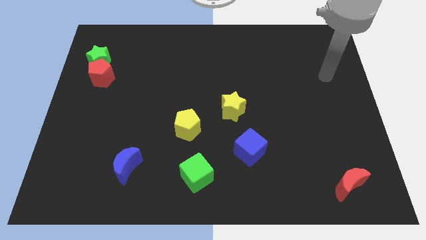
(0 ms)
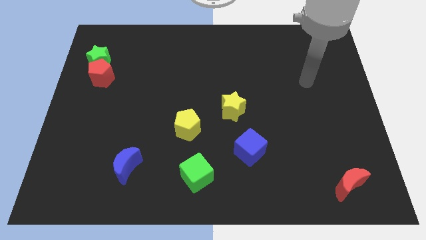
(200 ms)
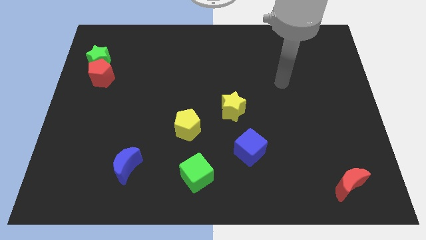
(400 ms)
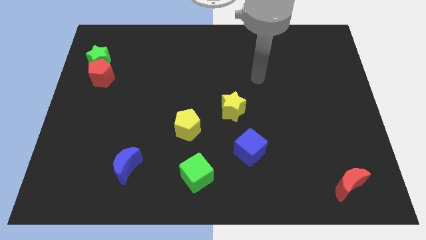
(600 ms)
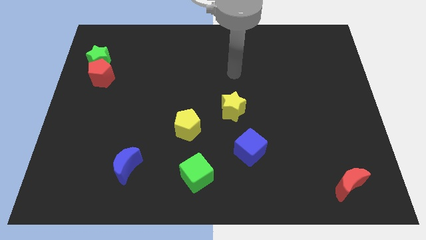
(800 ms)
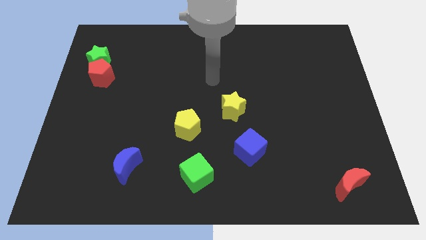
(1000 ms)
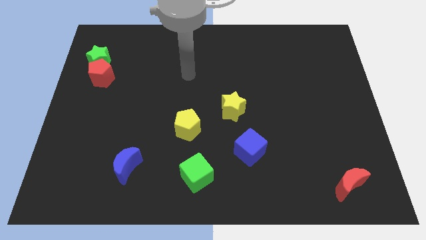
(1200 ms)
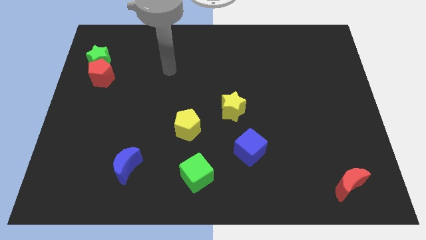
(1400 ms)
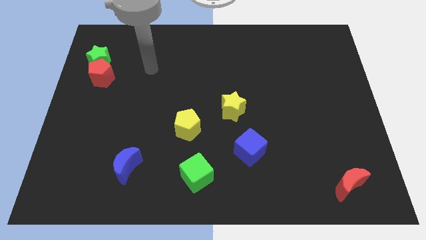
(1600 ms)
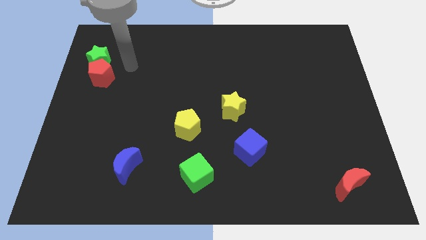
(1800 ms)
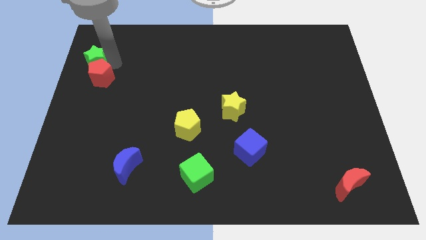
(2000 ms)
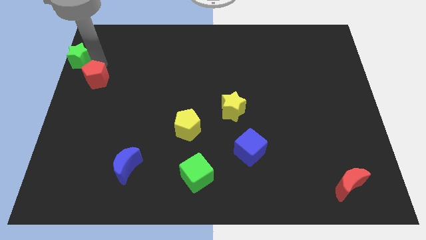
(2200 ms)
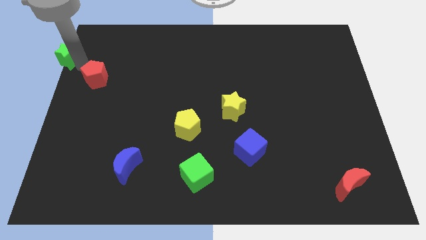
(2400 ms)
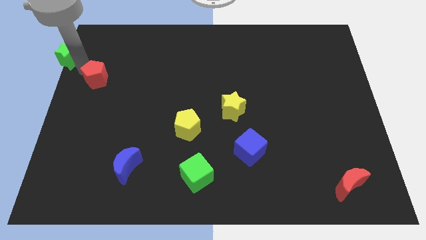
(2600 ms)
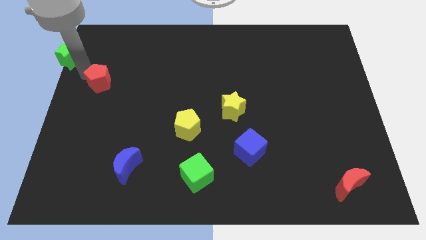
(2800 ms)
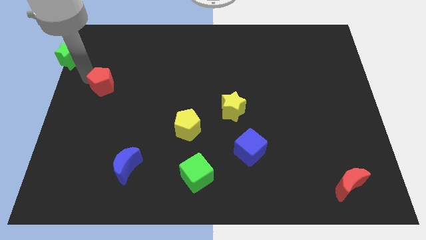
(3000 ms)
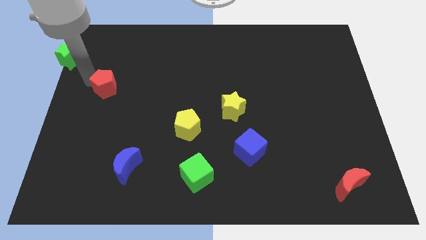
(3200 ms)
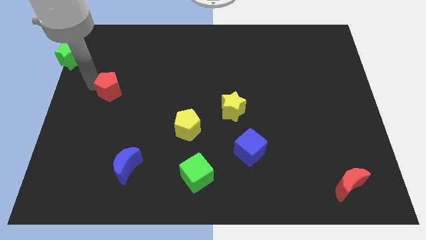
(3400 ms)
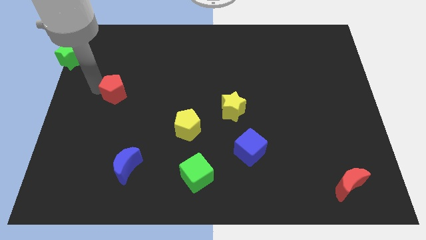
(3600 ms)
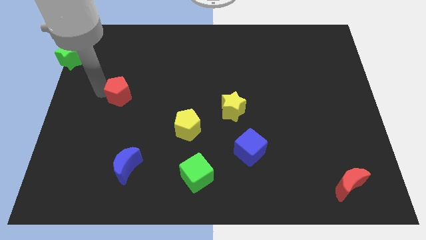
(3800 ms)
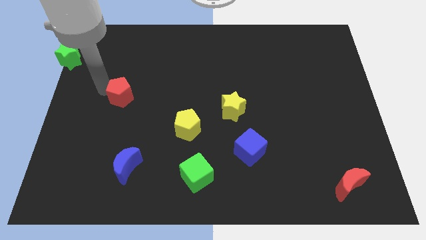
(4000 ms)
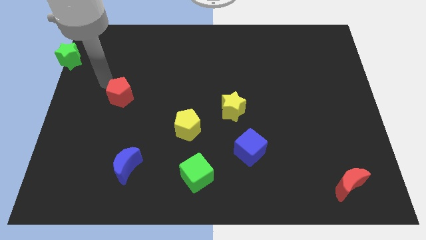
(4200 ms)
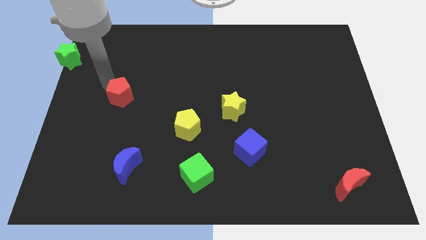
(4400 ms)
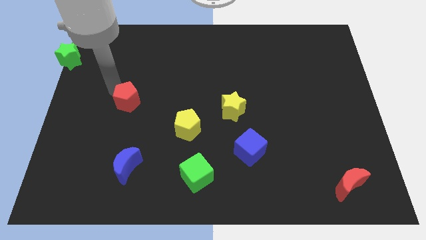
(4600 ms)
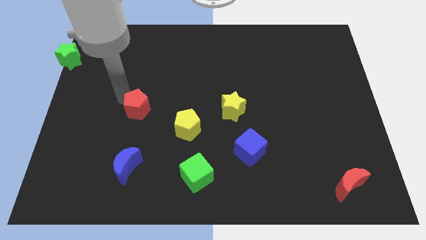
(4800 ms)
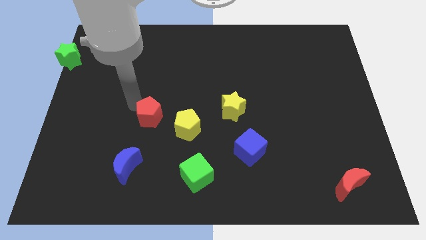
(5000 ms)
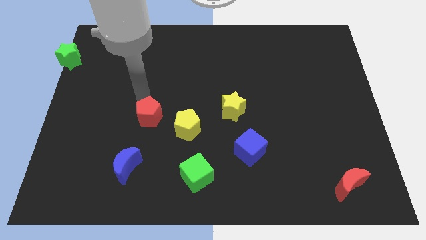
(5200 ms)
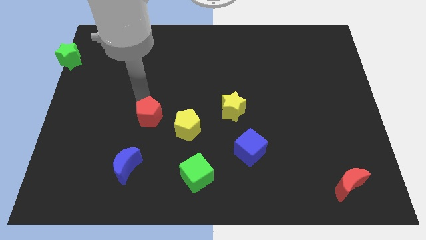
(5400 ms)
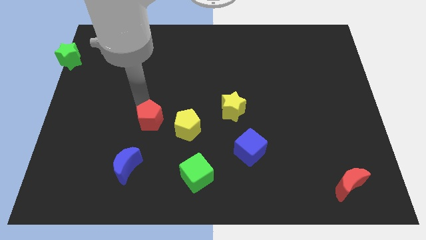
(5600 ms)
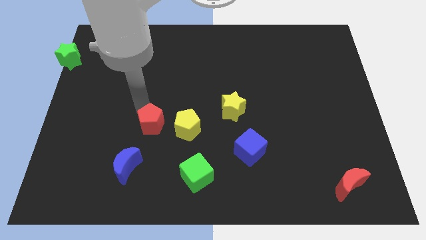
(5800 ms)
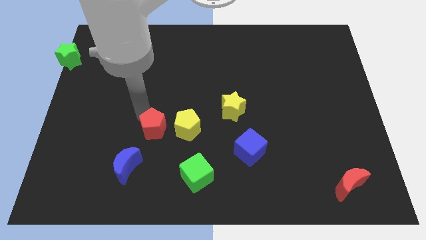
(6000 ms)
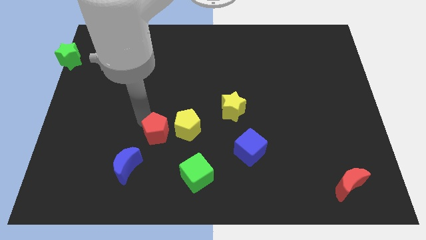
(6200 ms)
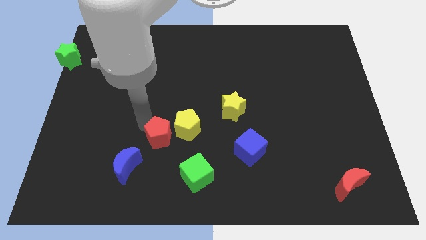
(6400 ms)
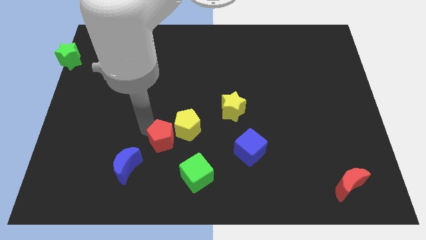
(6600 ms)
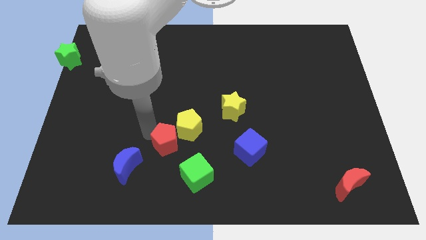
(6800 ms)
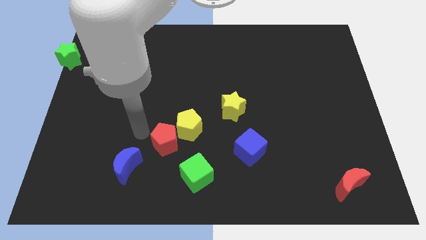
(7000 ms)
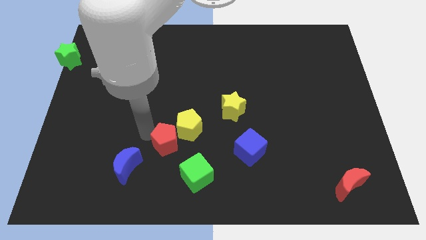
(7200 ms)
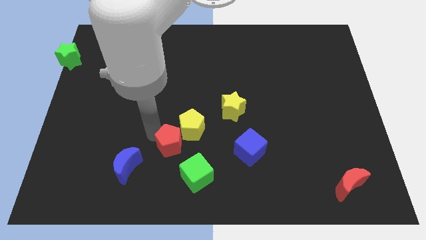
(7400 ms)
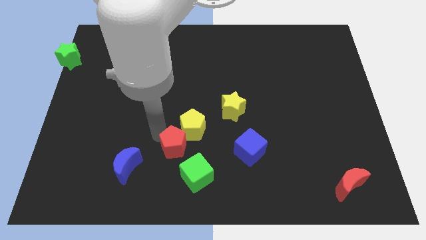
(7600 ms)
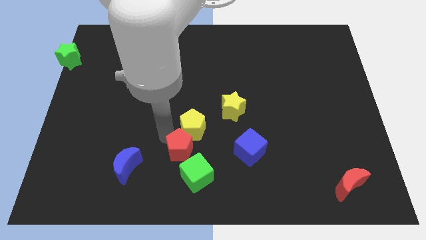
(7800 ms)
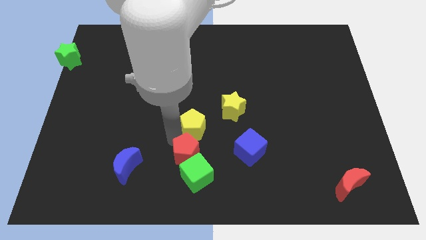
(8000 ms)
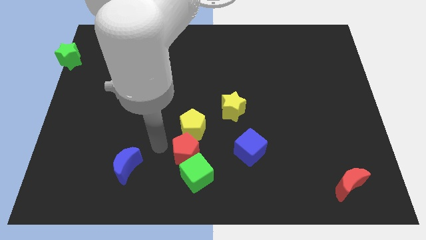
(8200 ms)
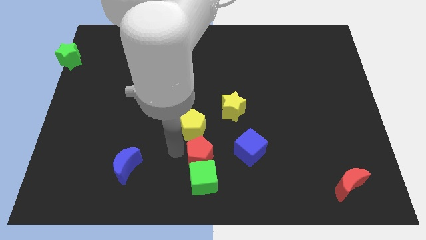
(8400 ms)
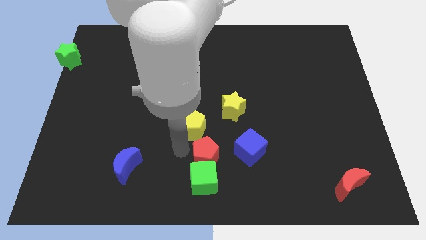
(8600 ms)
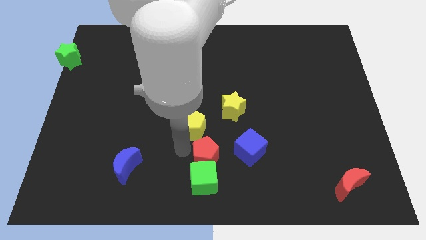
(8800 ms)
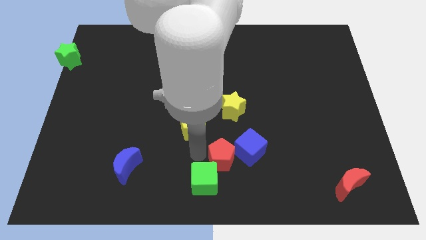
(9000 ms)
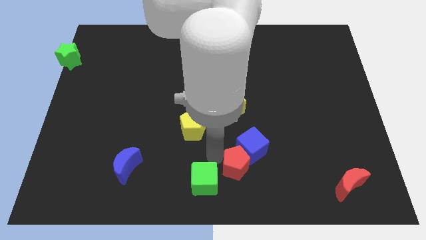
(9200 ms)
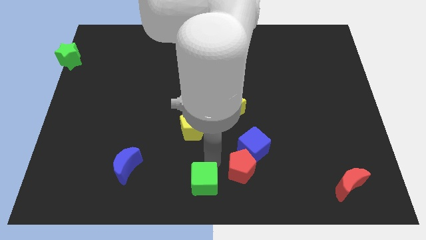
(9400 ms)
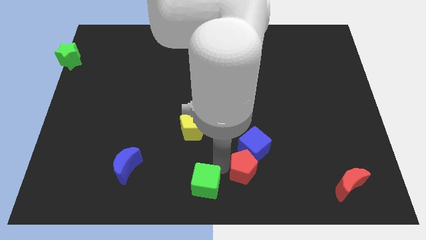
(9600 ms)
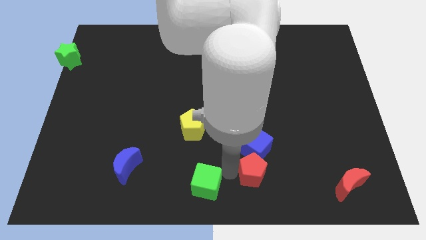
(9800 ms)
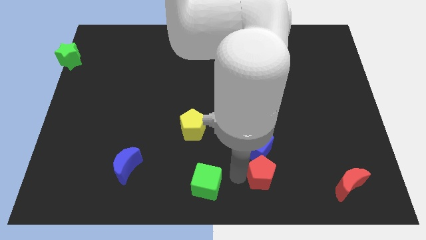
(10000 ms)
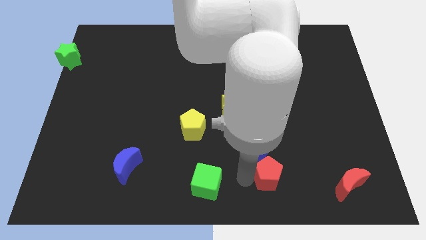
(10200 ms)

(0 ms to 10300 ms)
move the red pentagon left of the red moon

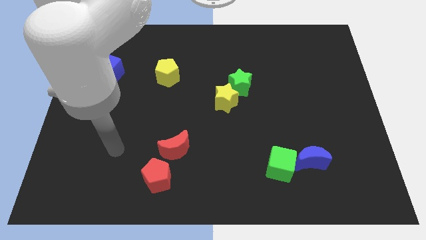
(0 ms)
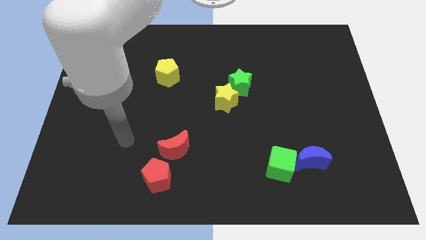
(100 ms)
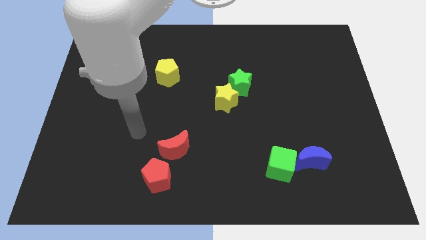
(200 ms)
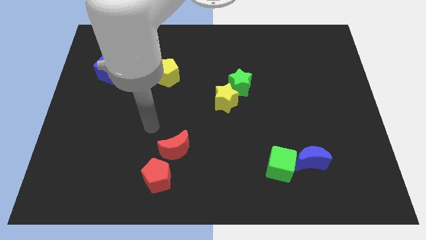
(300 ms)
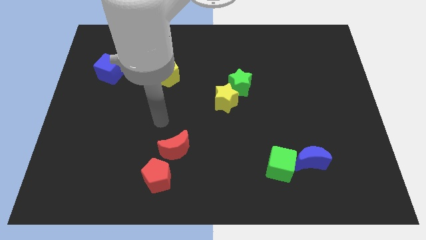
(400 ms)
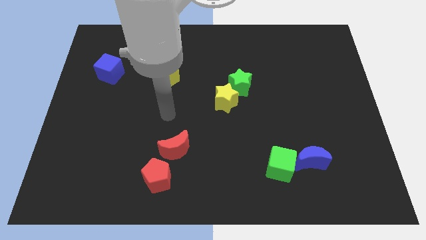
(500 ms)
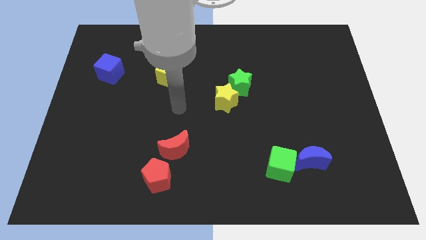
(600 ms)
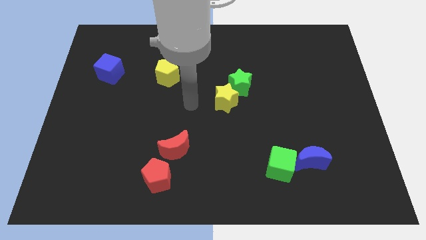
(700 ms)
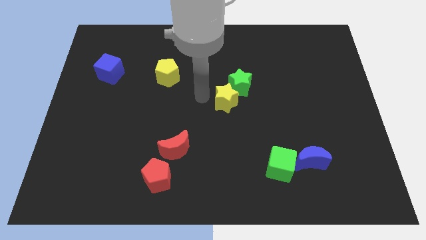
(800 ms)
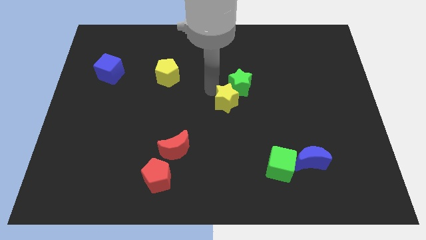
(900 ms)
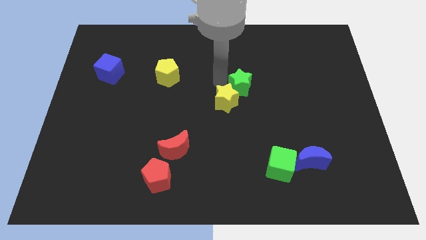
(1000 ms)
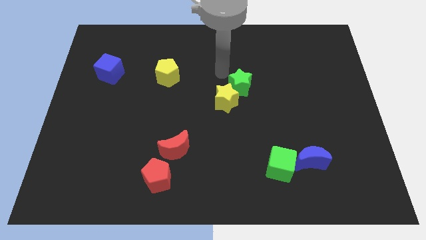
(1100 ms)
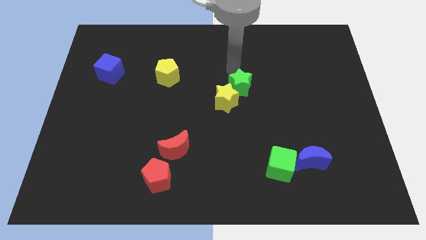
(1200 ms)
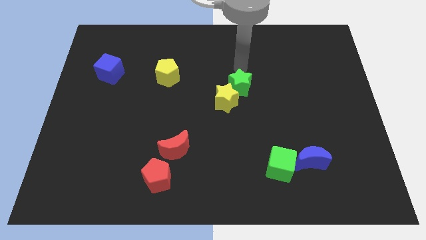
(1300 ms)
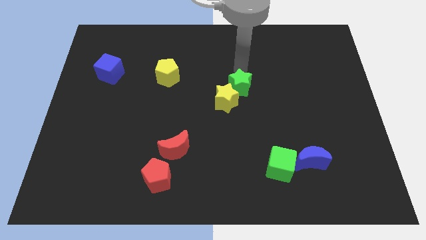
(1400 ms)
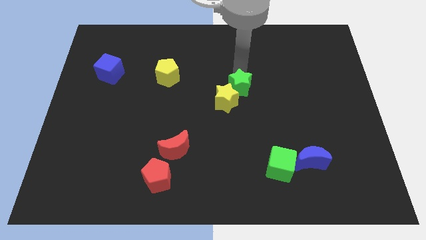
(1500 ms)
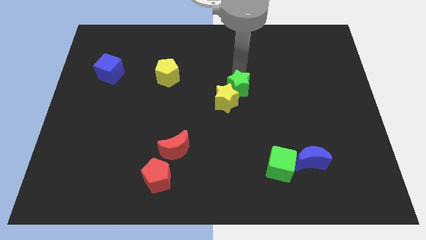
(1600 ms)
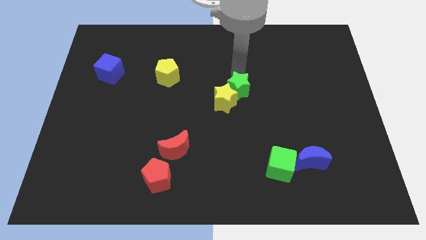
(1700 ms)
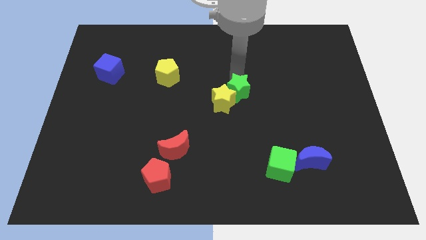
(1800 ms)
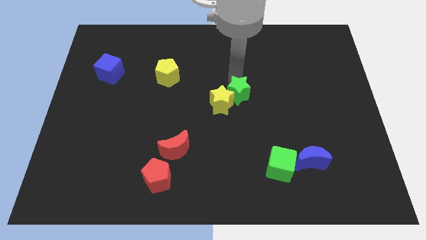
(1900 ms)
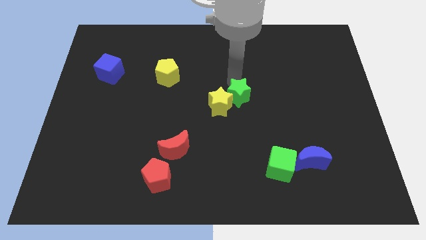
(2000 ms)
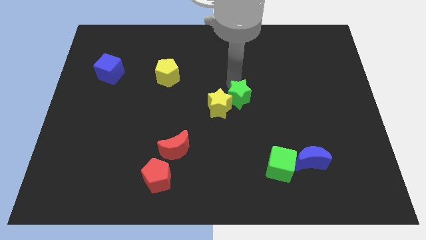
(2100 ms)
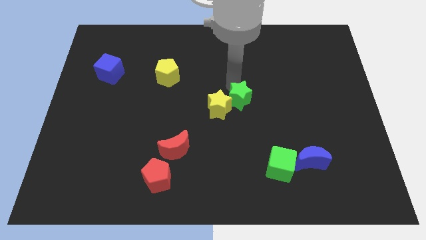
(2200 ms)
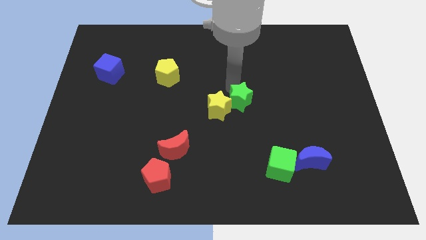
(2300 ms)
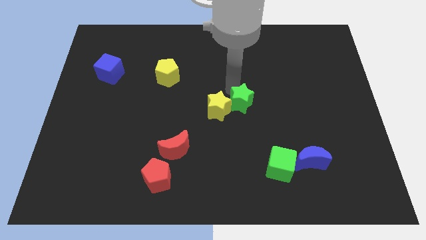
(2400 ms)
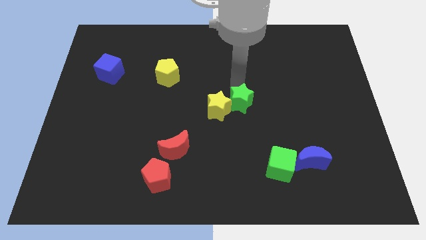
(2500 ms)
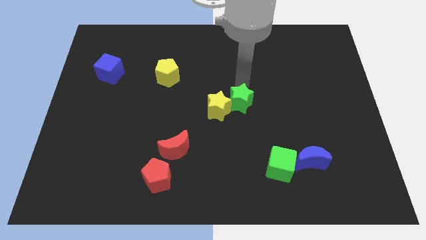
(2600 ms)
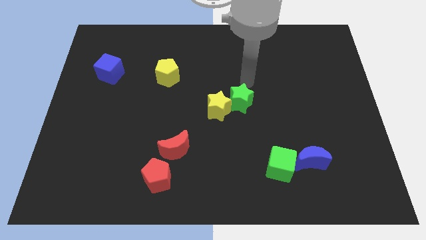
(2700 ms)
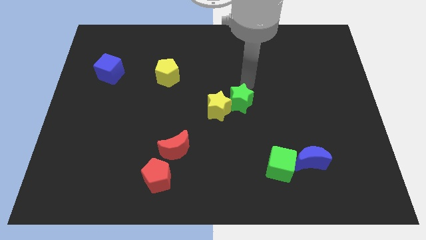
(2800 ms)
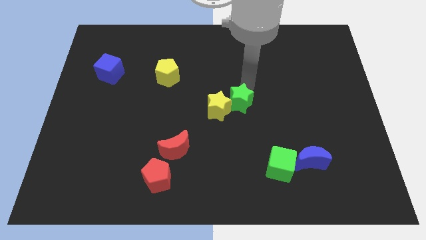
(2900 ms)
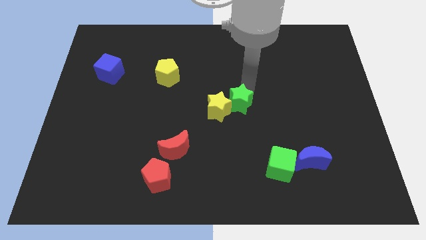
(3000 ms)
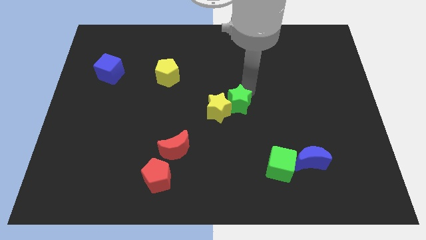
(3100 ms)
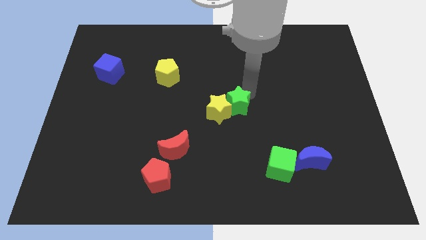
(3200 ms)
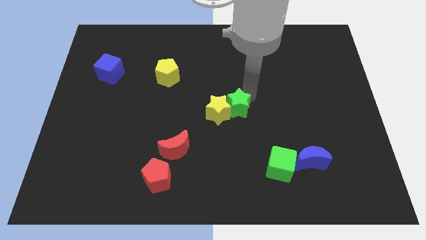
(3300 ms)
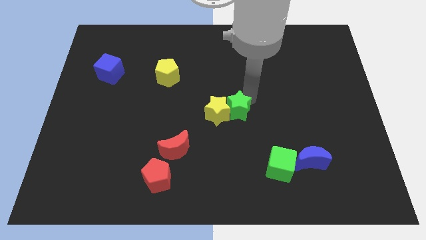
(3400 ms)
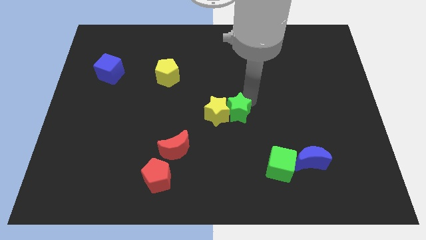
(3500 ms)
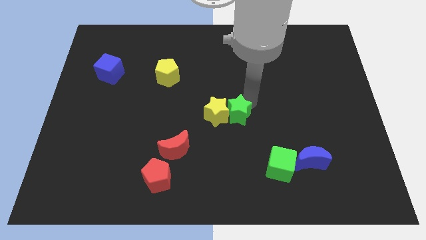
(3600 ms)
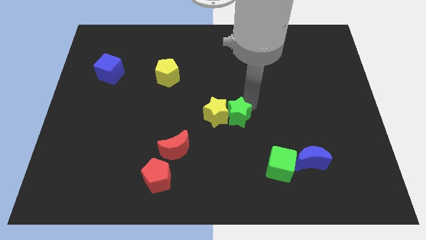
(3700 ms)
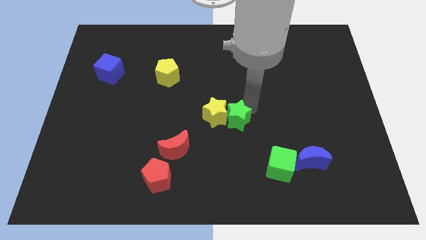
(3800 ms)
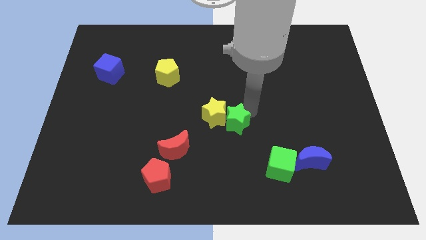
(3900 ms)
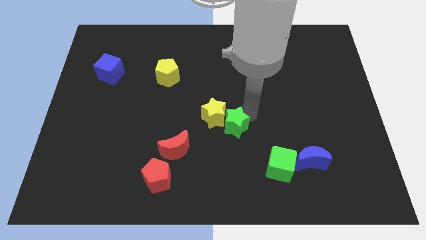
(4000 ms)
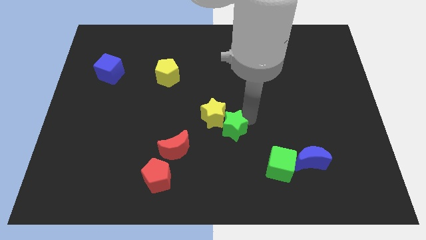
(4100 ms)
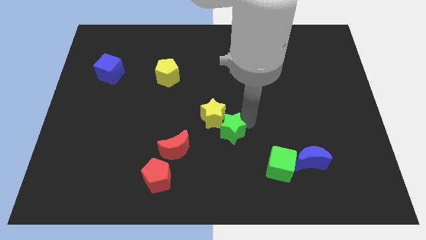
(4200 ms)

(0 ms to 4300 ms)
push the green star to the bottom of the yellow star
